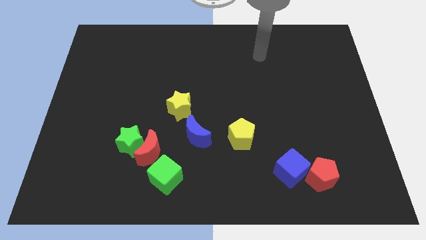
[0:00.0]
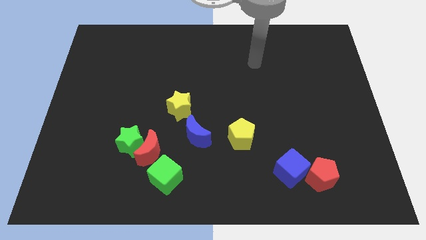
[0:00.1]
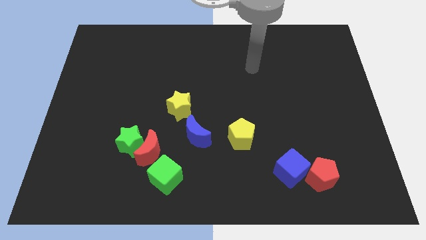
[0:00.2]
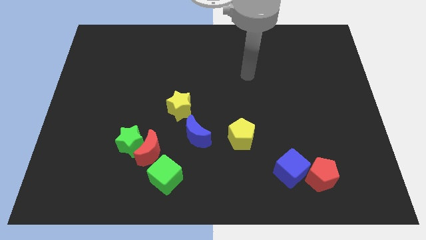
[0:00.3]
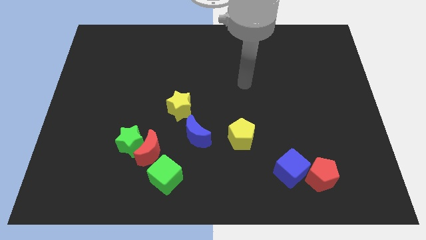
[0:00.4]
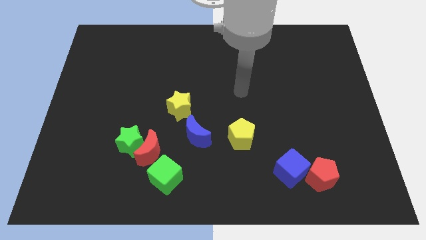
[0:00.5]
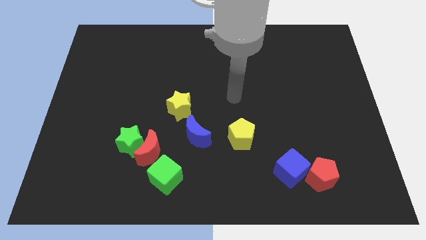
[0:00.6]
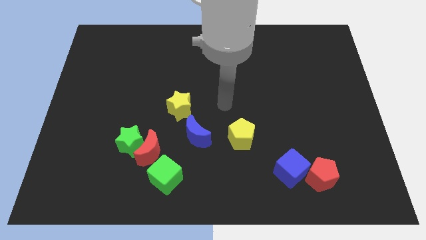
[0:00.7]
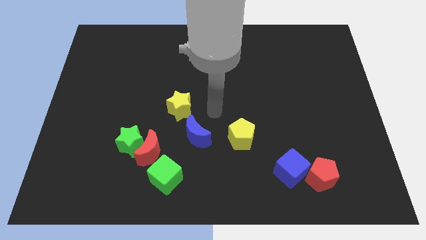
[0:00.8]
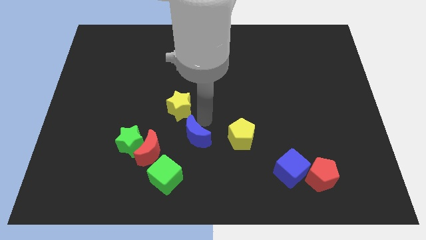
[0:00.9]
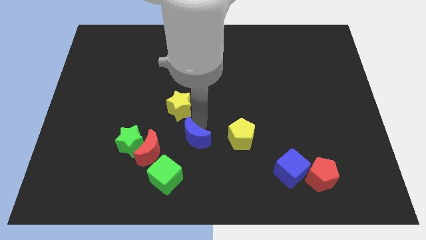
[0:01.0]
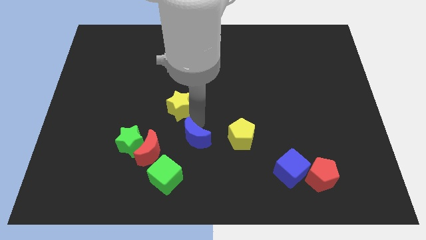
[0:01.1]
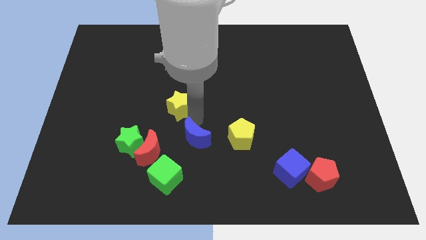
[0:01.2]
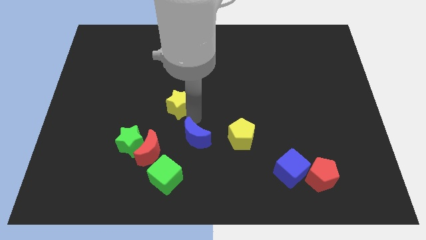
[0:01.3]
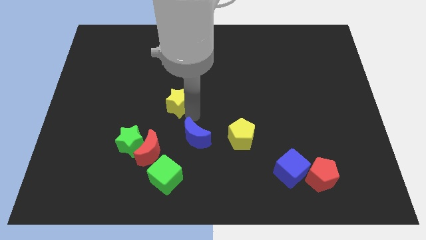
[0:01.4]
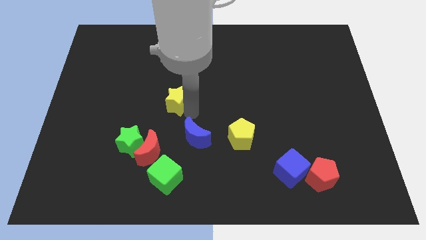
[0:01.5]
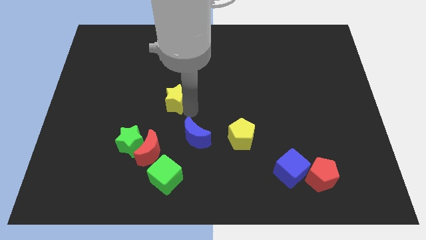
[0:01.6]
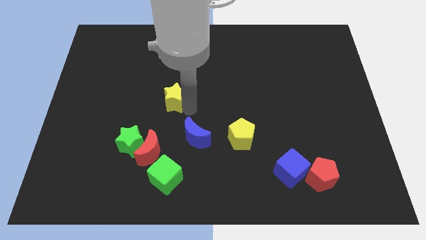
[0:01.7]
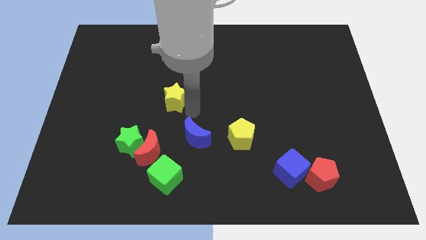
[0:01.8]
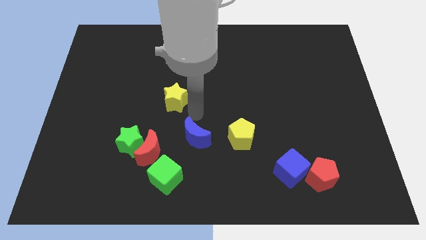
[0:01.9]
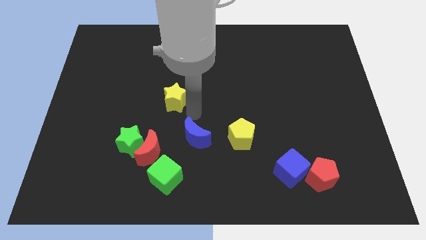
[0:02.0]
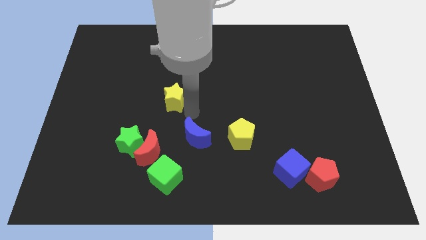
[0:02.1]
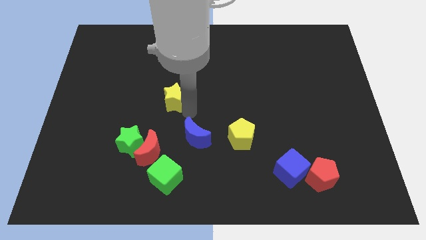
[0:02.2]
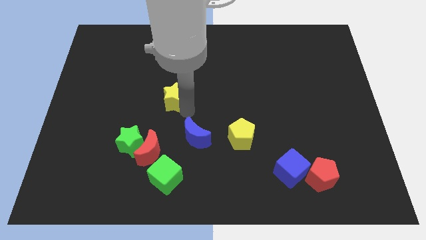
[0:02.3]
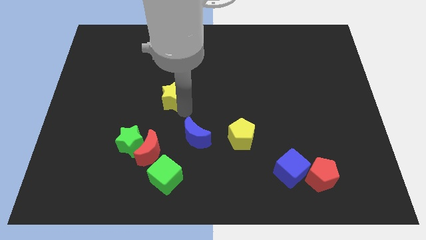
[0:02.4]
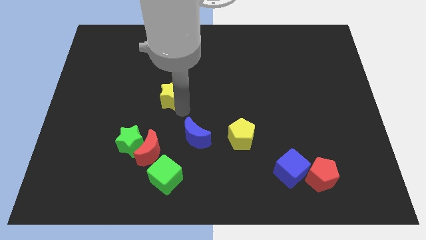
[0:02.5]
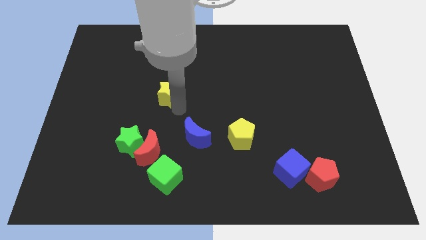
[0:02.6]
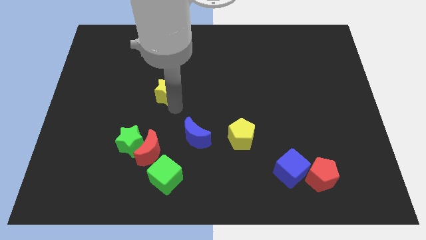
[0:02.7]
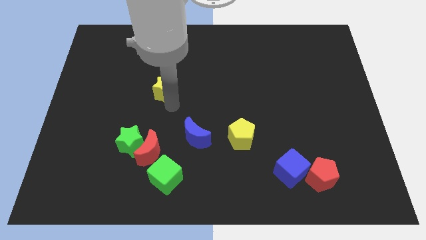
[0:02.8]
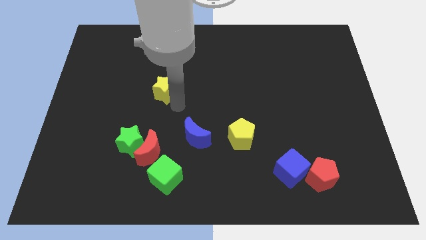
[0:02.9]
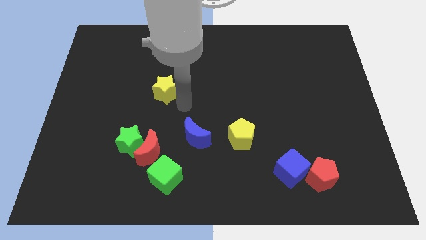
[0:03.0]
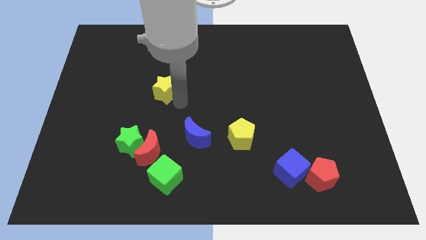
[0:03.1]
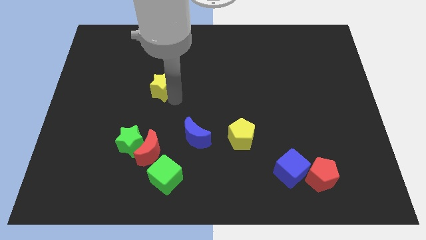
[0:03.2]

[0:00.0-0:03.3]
move the yellow star upwards and then to the left slightly

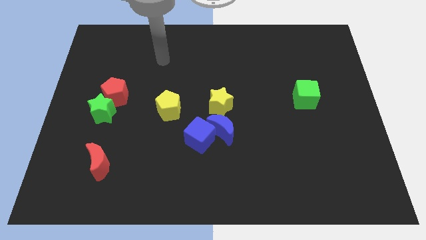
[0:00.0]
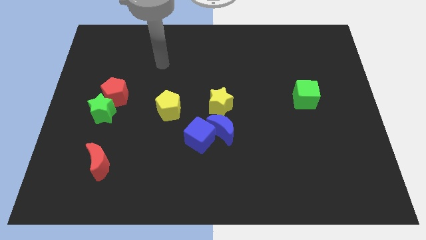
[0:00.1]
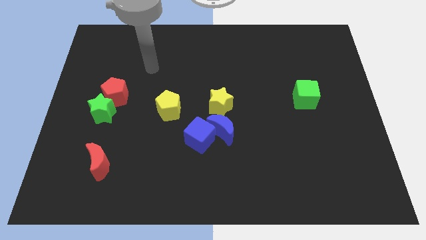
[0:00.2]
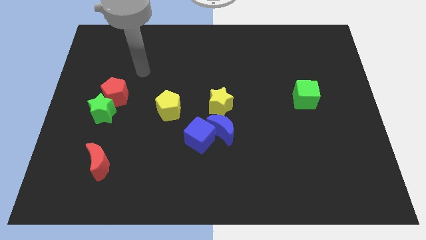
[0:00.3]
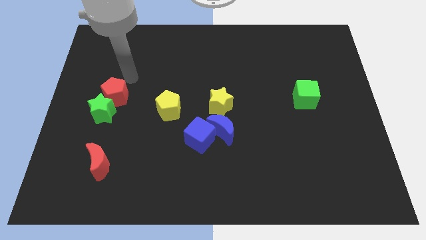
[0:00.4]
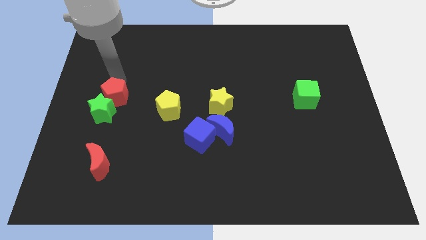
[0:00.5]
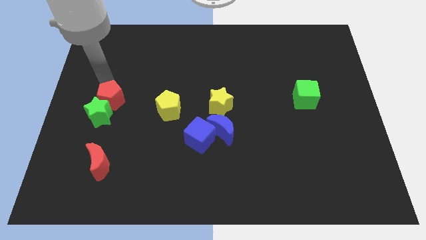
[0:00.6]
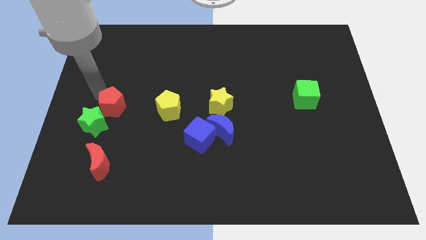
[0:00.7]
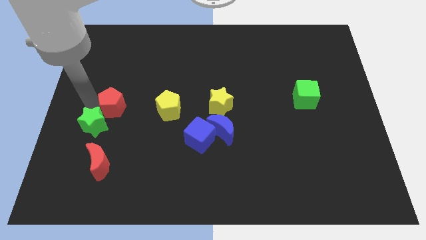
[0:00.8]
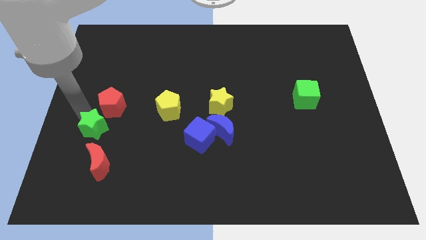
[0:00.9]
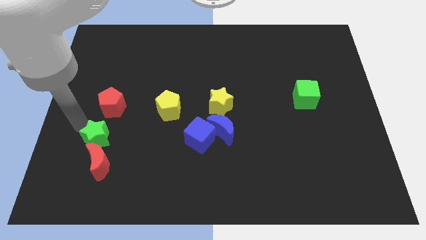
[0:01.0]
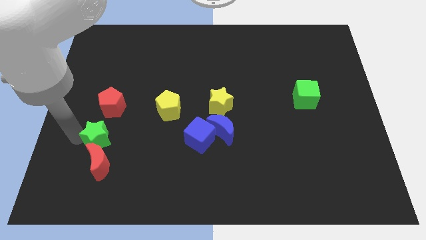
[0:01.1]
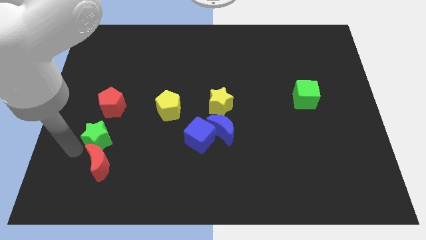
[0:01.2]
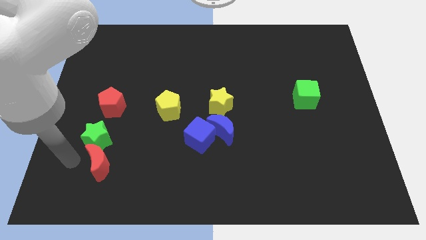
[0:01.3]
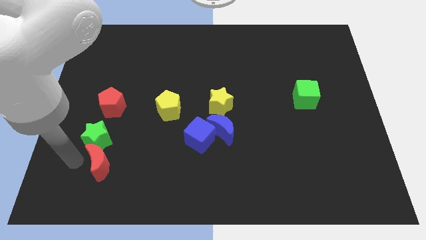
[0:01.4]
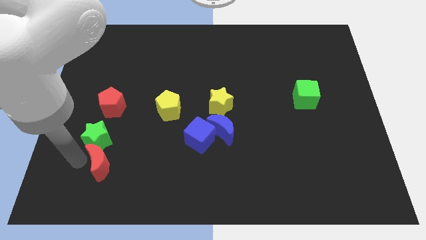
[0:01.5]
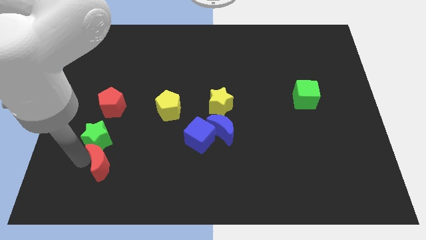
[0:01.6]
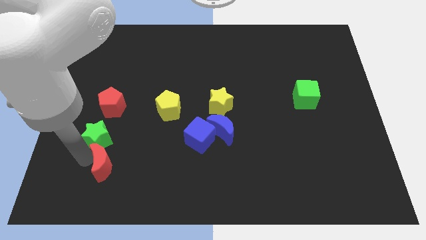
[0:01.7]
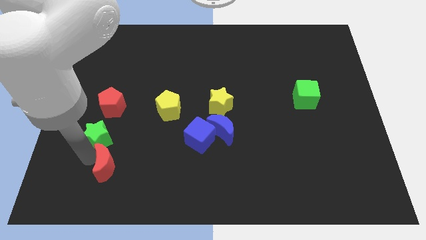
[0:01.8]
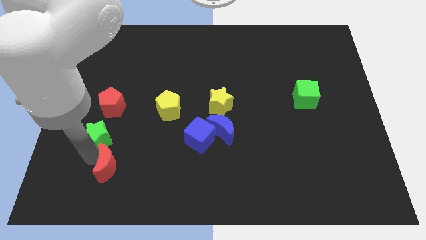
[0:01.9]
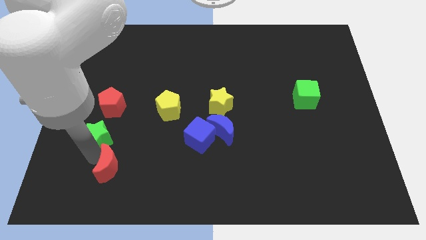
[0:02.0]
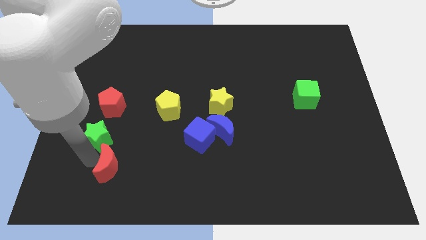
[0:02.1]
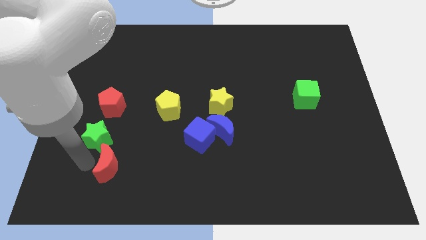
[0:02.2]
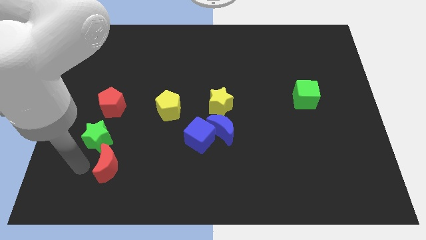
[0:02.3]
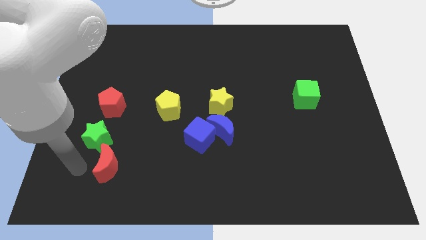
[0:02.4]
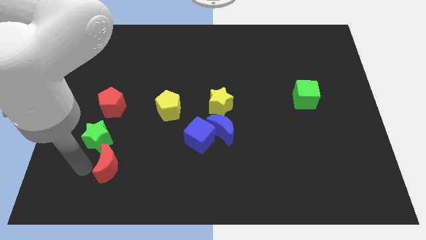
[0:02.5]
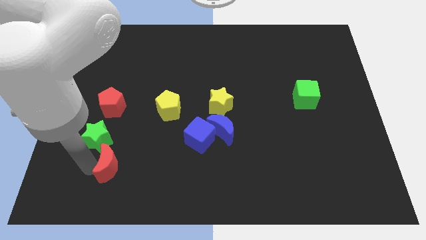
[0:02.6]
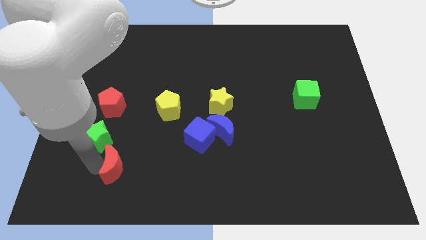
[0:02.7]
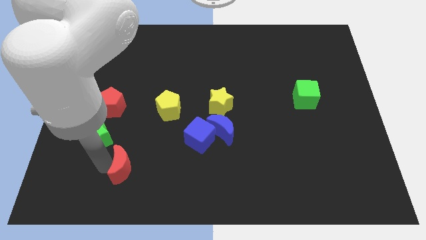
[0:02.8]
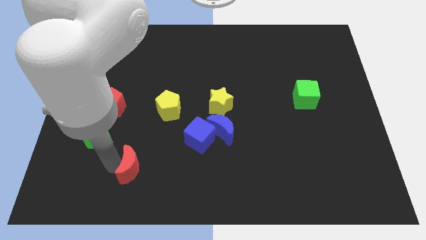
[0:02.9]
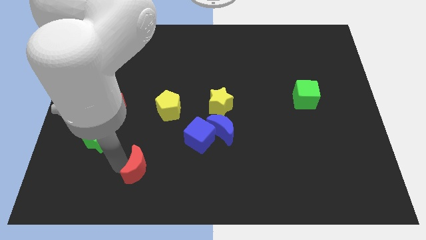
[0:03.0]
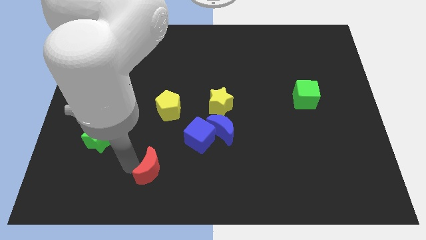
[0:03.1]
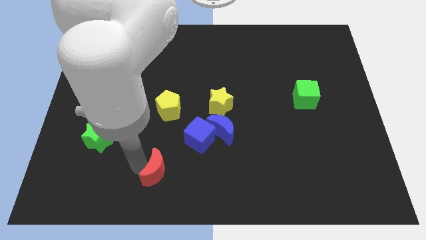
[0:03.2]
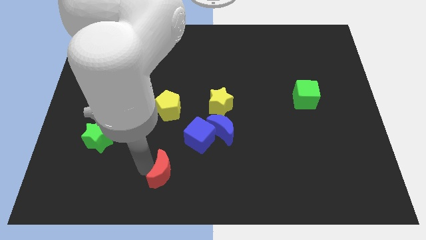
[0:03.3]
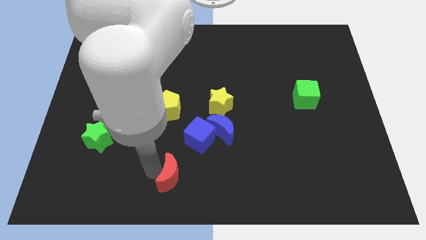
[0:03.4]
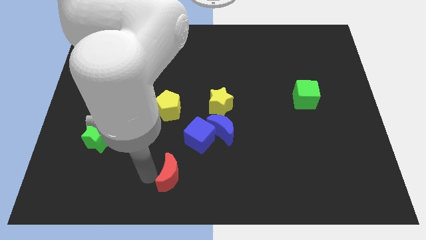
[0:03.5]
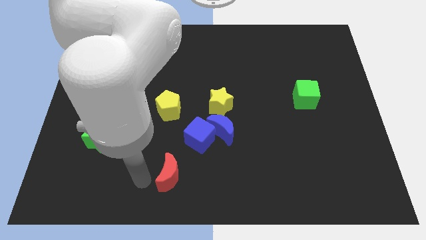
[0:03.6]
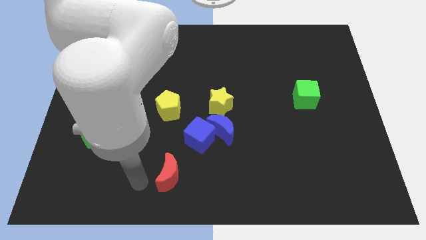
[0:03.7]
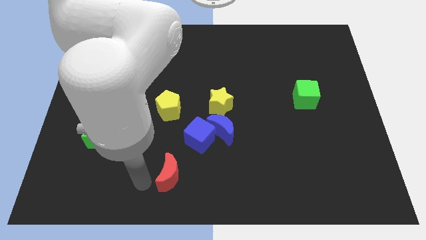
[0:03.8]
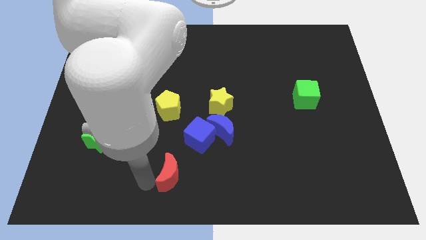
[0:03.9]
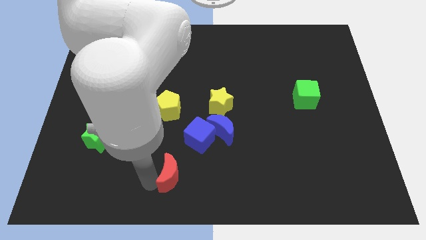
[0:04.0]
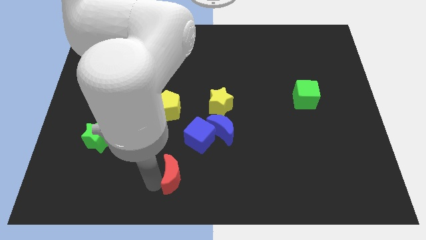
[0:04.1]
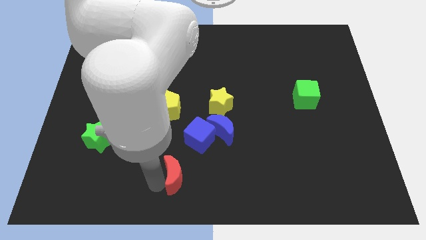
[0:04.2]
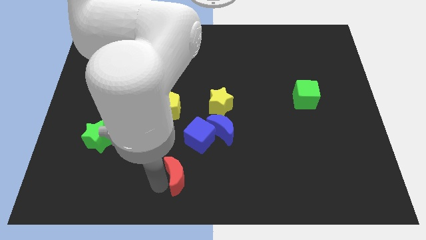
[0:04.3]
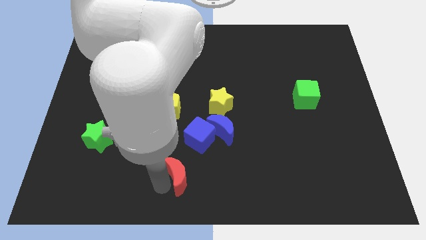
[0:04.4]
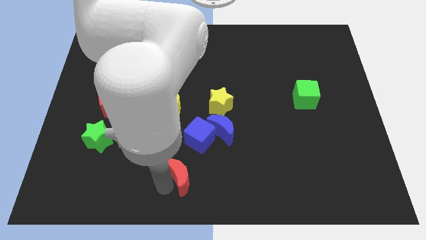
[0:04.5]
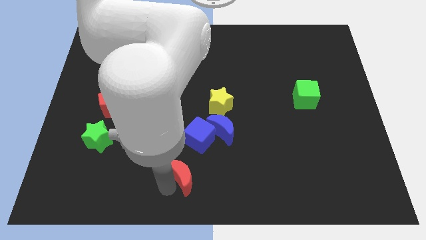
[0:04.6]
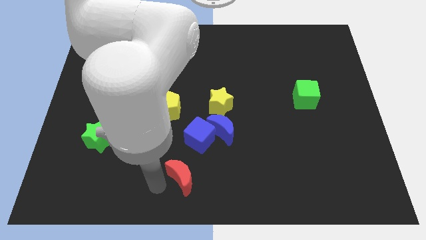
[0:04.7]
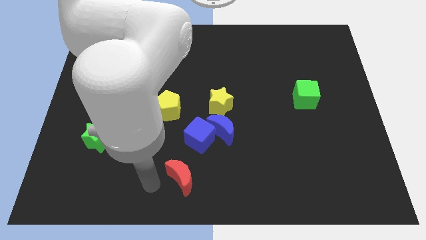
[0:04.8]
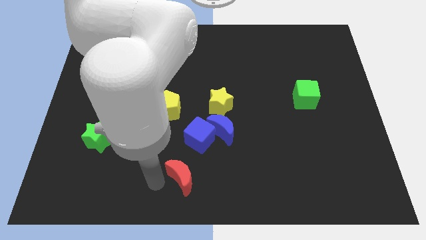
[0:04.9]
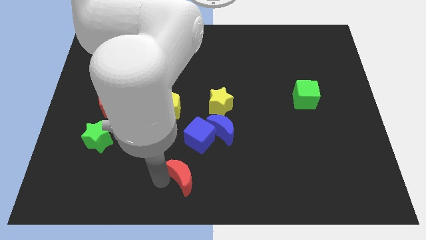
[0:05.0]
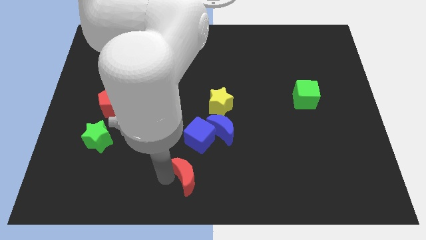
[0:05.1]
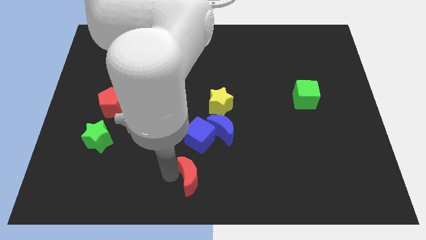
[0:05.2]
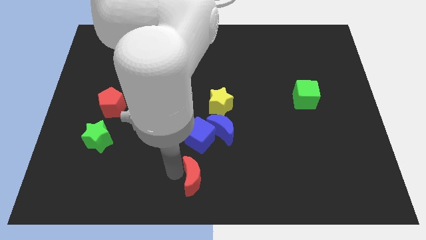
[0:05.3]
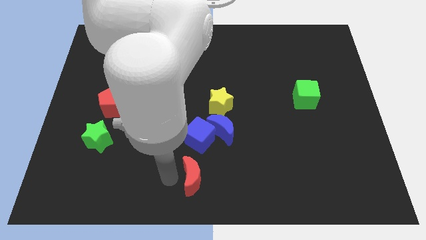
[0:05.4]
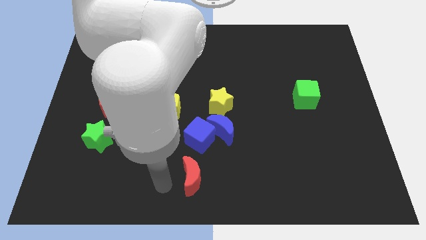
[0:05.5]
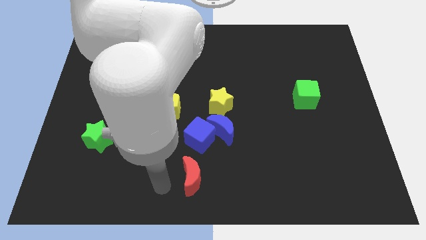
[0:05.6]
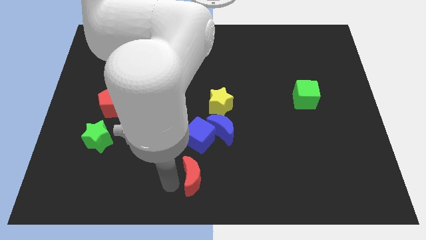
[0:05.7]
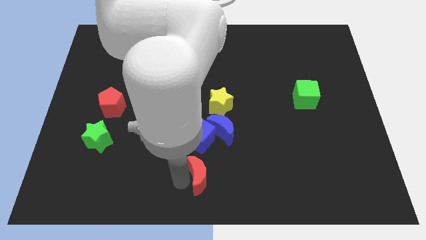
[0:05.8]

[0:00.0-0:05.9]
push the red moon right
